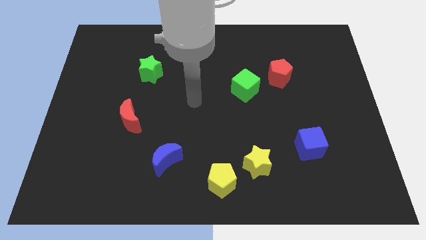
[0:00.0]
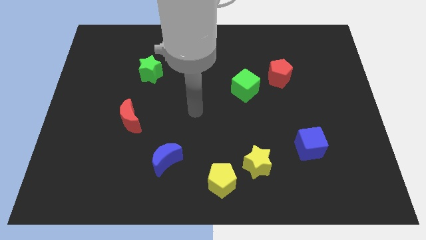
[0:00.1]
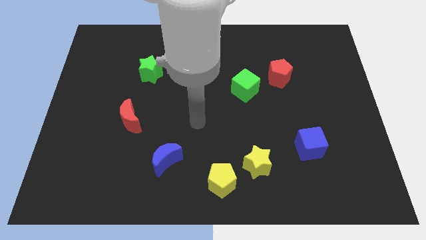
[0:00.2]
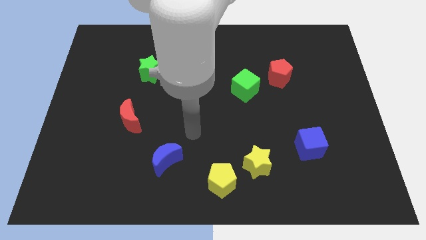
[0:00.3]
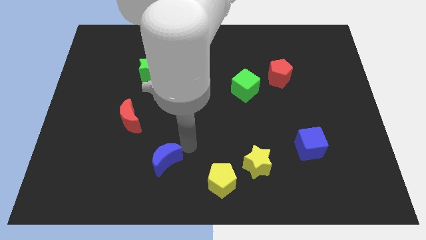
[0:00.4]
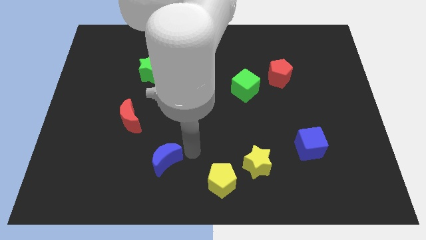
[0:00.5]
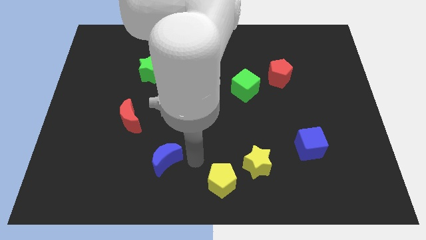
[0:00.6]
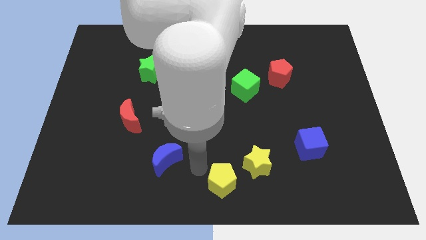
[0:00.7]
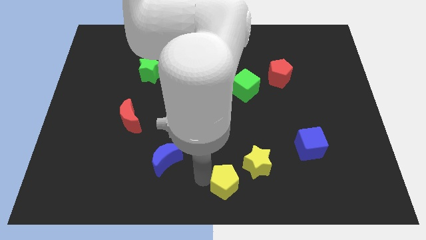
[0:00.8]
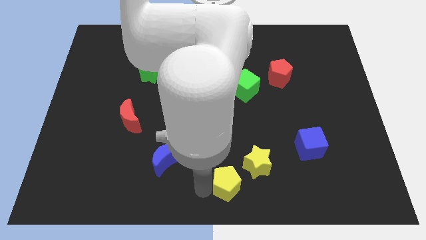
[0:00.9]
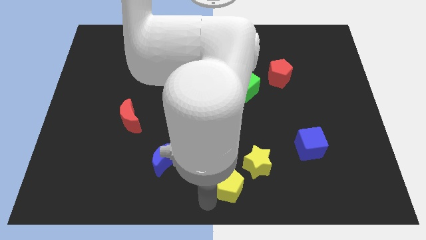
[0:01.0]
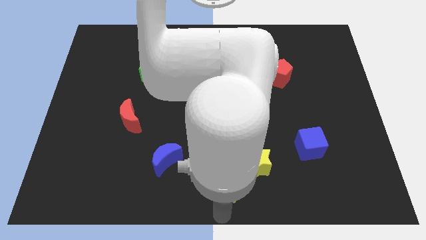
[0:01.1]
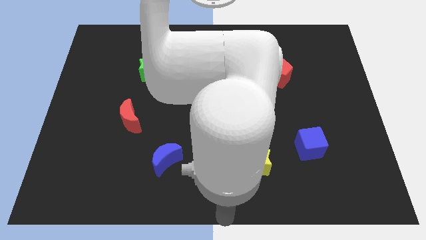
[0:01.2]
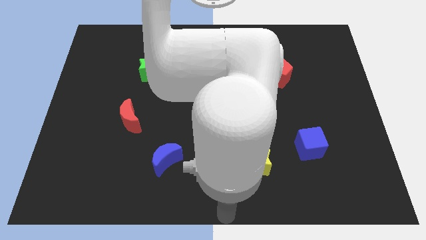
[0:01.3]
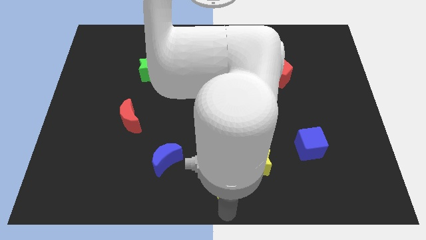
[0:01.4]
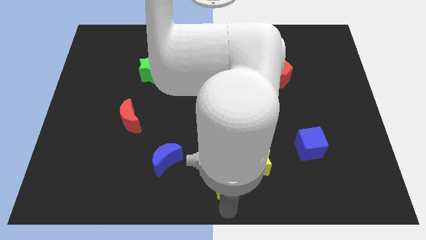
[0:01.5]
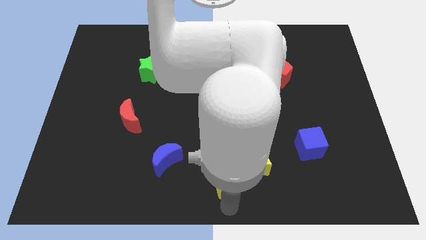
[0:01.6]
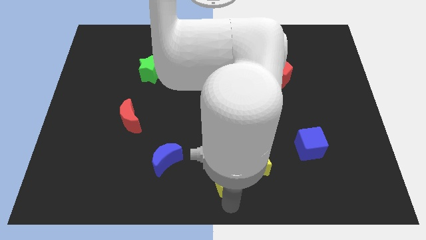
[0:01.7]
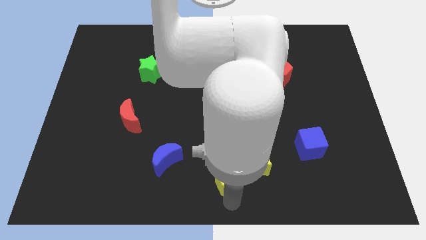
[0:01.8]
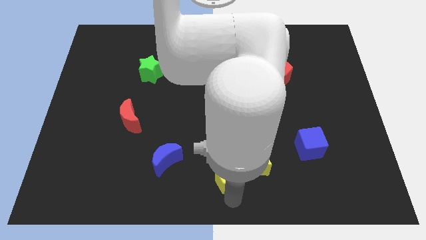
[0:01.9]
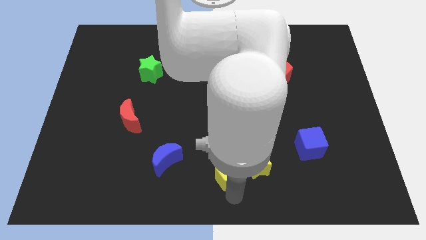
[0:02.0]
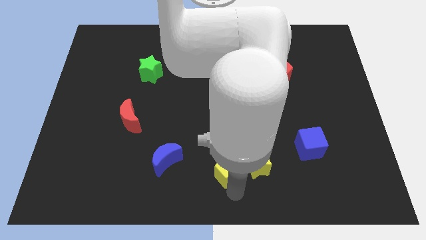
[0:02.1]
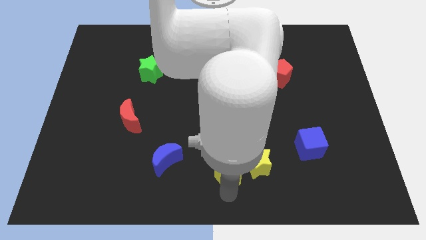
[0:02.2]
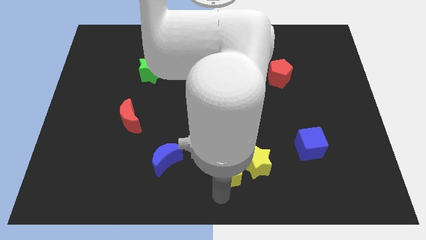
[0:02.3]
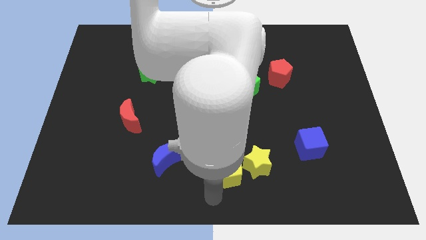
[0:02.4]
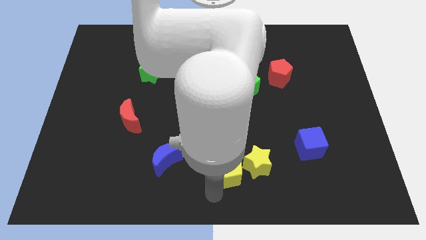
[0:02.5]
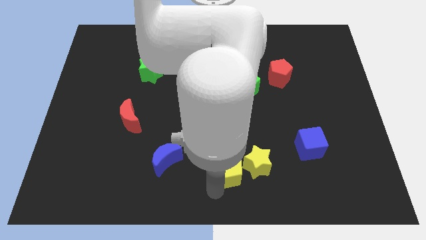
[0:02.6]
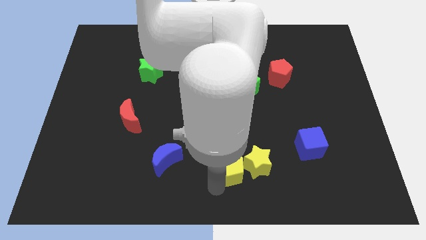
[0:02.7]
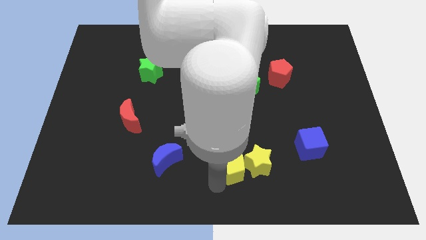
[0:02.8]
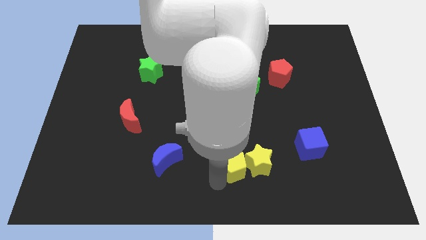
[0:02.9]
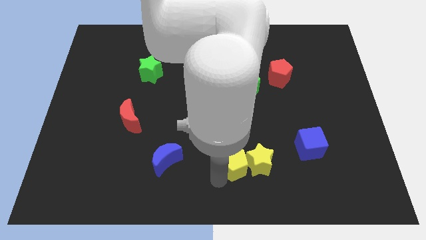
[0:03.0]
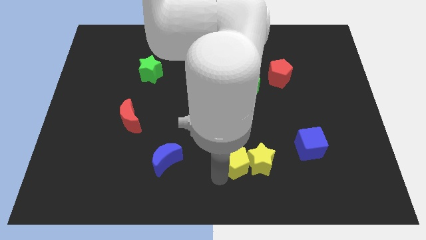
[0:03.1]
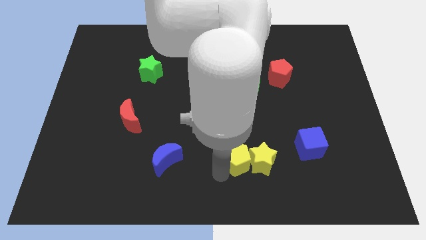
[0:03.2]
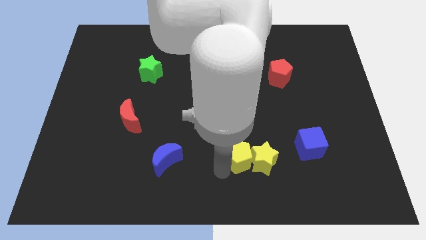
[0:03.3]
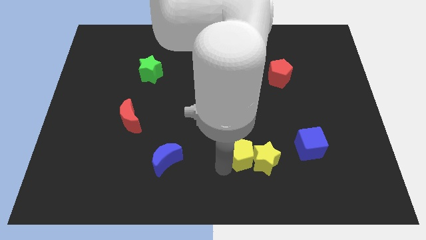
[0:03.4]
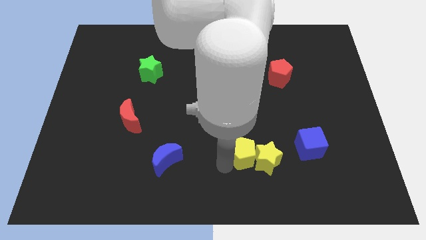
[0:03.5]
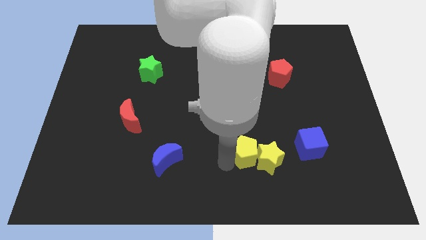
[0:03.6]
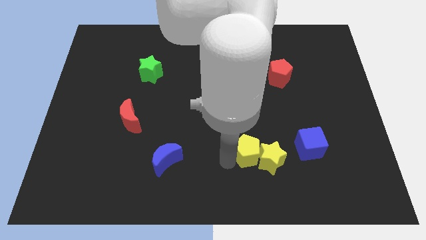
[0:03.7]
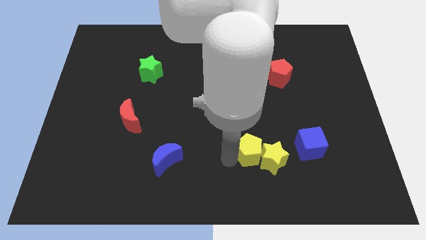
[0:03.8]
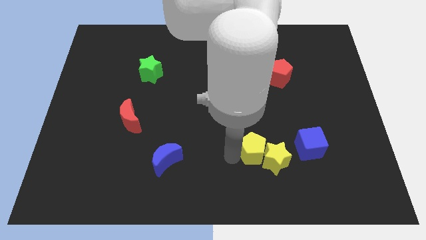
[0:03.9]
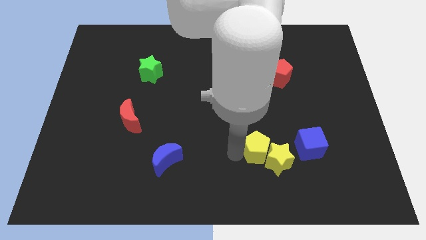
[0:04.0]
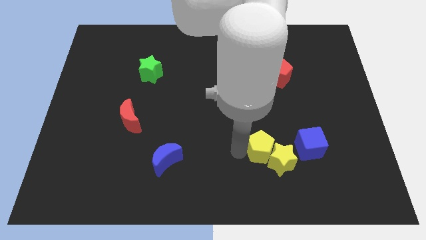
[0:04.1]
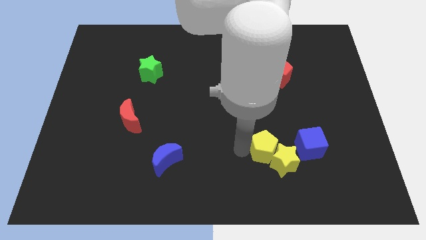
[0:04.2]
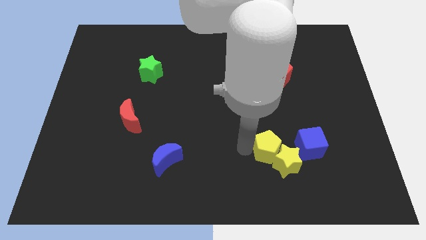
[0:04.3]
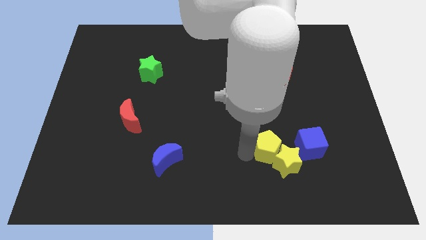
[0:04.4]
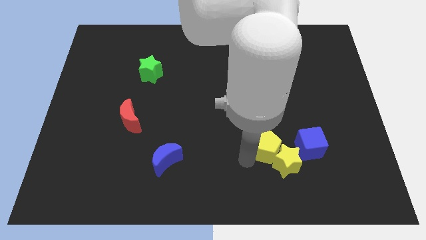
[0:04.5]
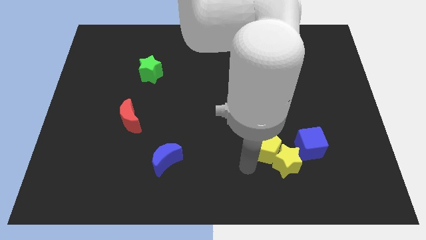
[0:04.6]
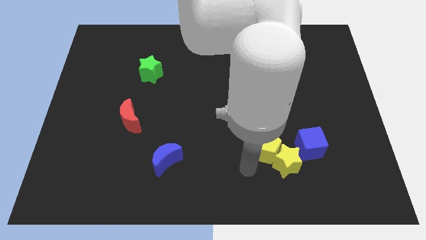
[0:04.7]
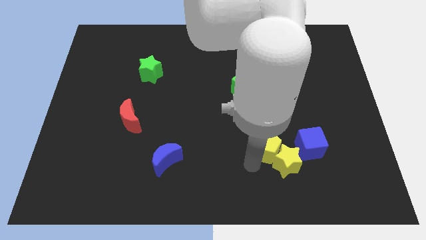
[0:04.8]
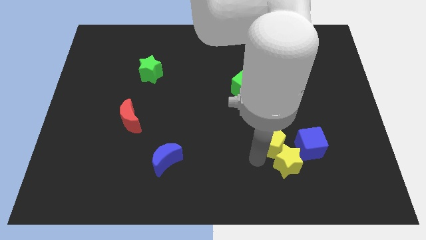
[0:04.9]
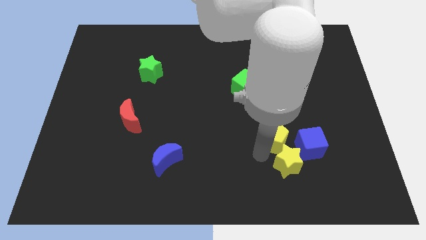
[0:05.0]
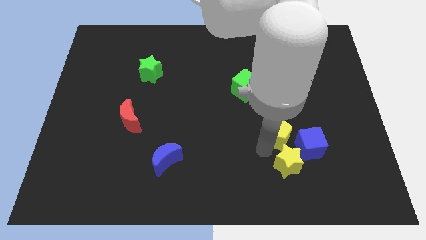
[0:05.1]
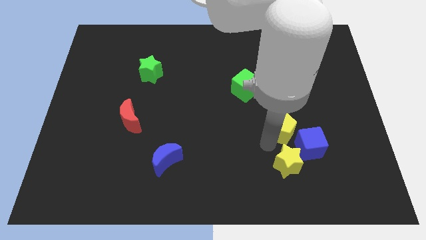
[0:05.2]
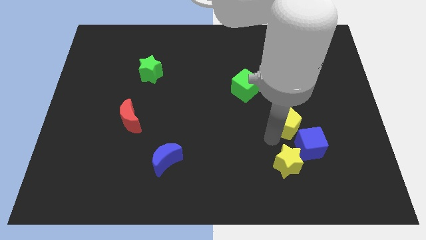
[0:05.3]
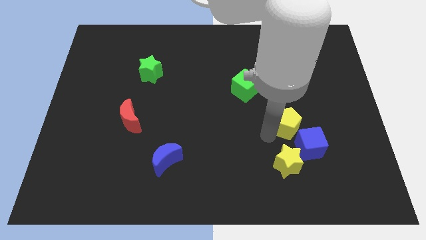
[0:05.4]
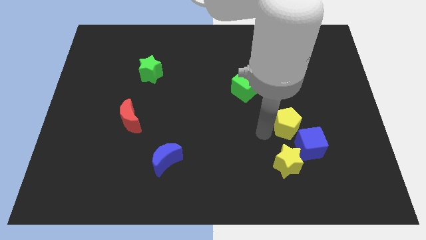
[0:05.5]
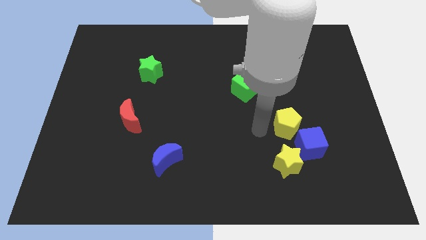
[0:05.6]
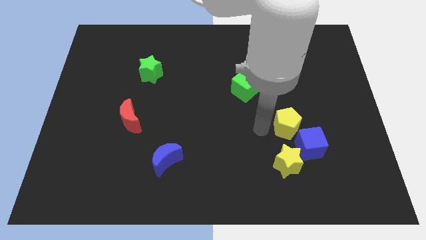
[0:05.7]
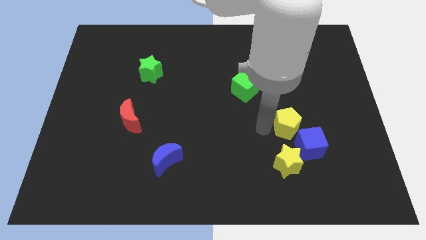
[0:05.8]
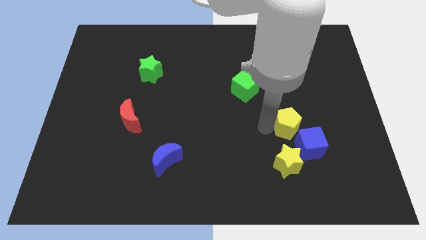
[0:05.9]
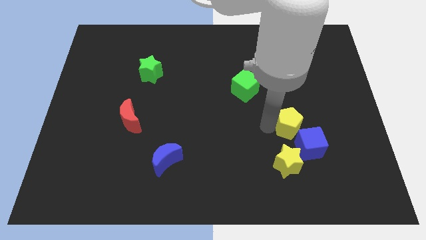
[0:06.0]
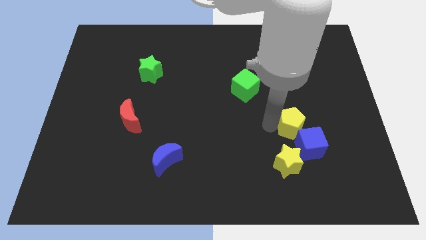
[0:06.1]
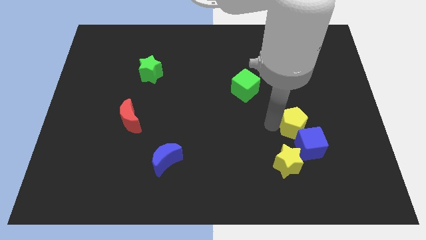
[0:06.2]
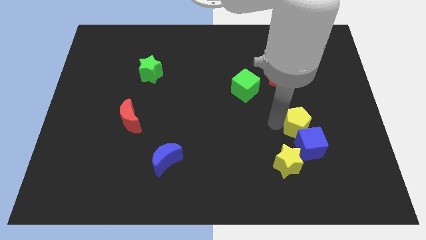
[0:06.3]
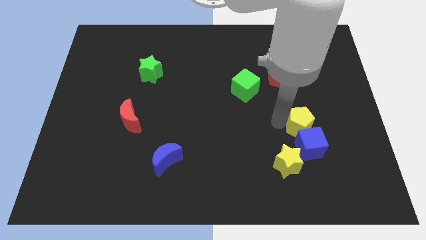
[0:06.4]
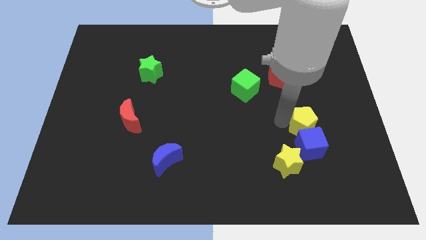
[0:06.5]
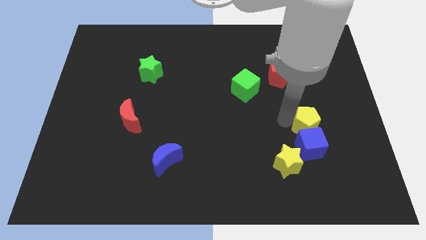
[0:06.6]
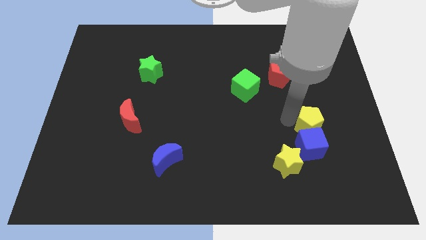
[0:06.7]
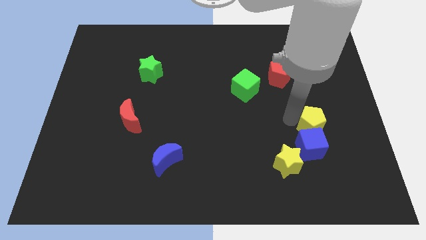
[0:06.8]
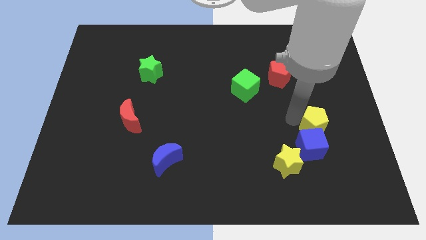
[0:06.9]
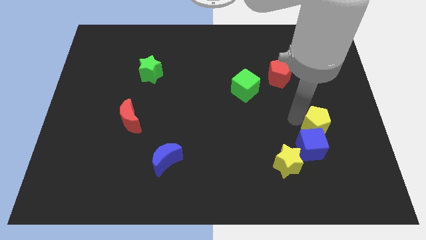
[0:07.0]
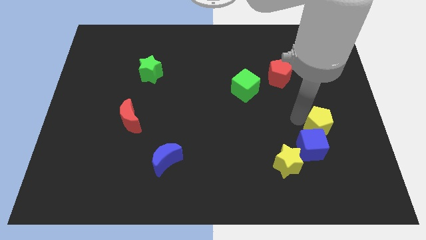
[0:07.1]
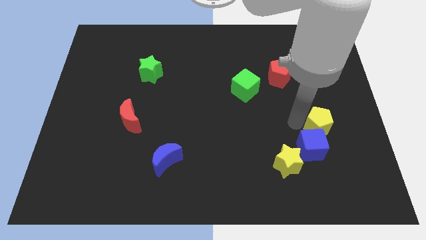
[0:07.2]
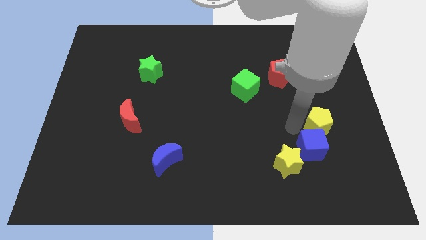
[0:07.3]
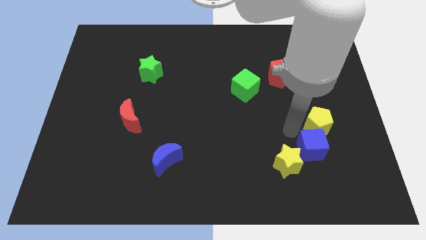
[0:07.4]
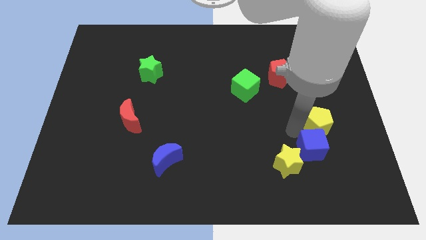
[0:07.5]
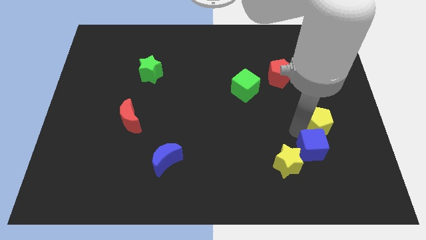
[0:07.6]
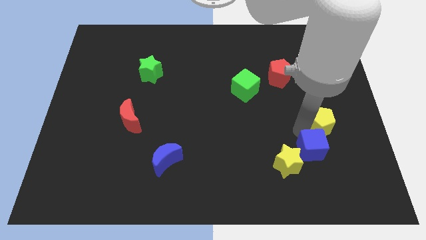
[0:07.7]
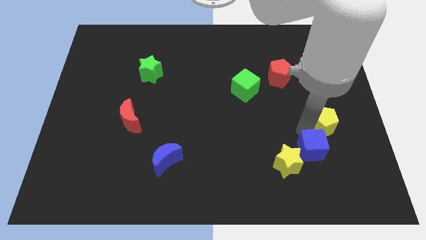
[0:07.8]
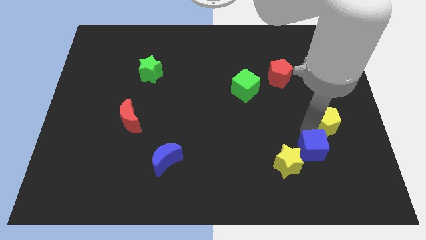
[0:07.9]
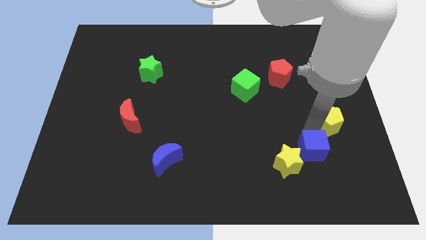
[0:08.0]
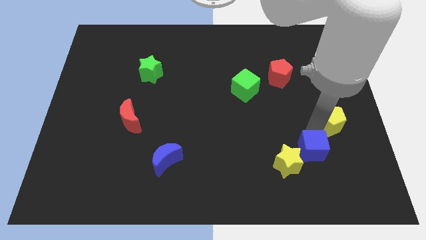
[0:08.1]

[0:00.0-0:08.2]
slide the yellow pentagon to the right side
